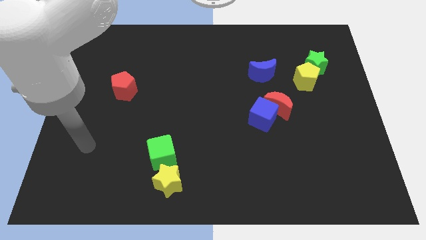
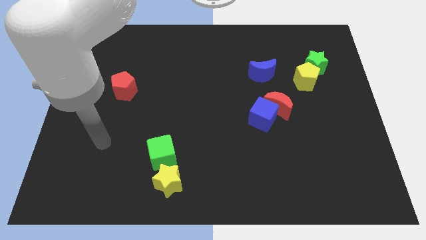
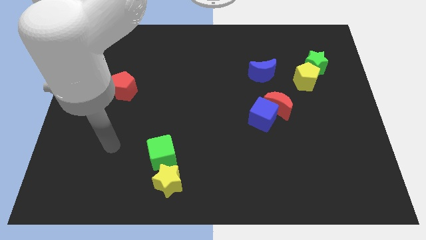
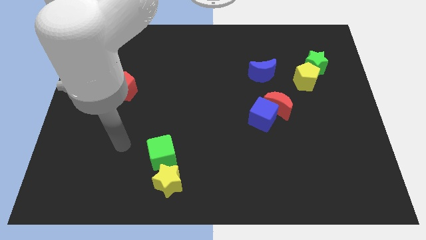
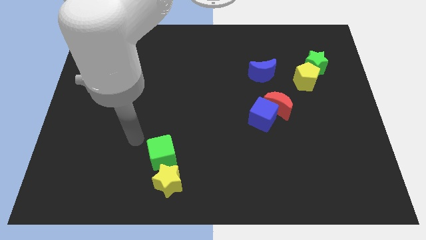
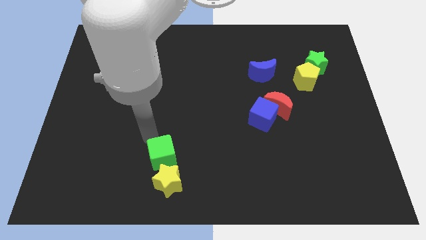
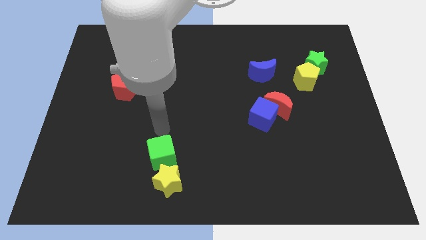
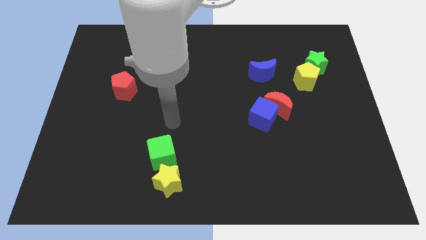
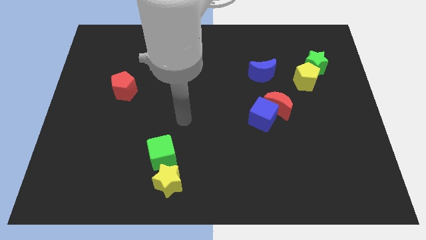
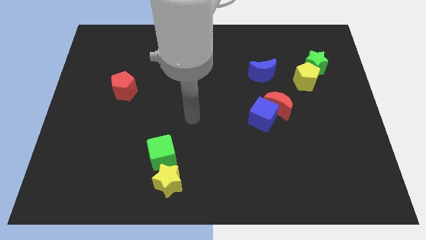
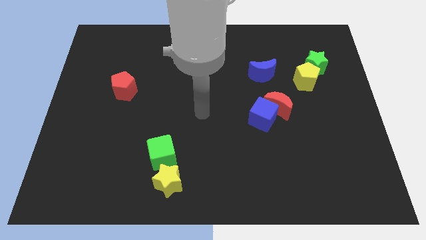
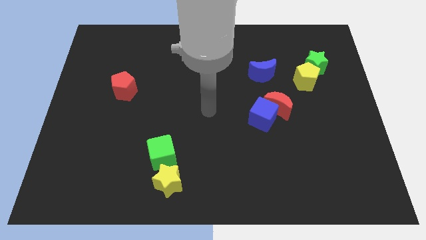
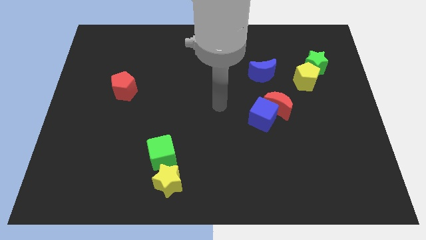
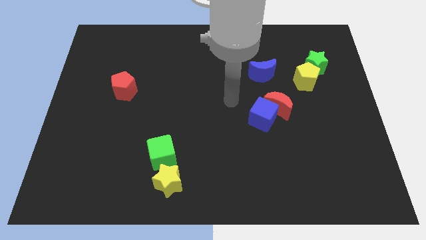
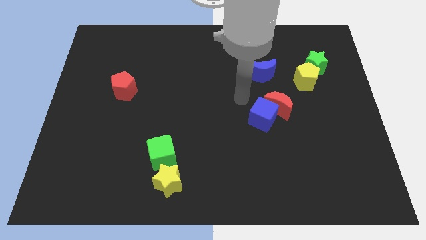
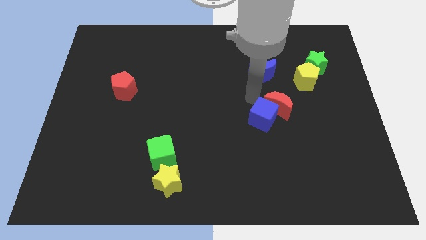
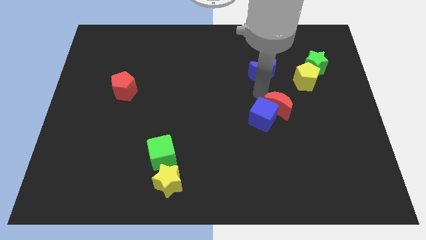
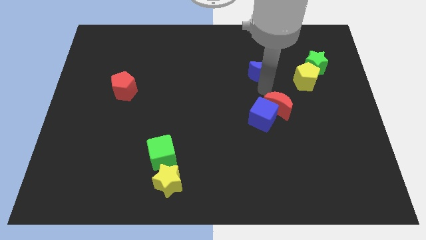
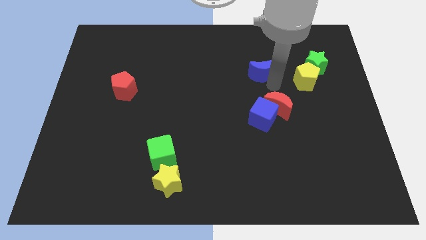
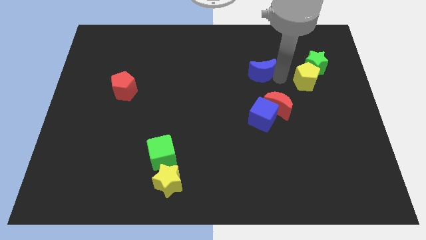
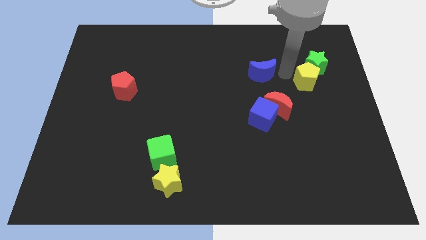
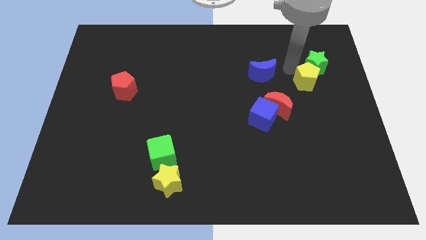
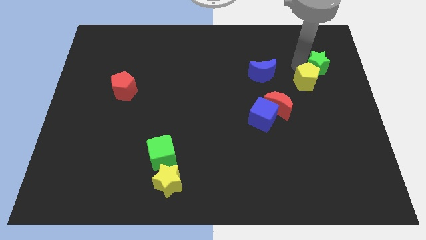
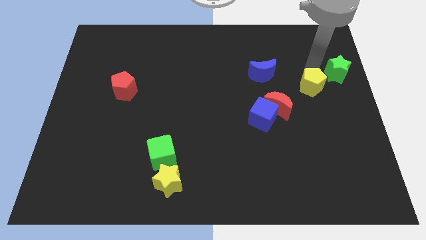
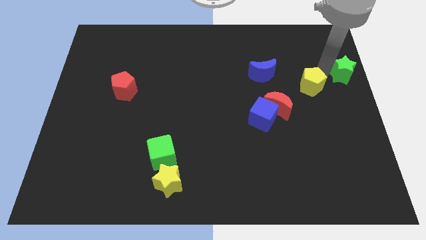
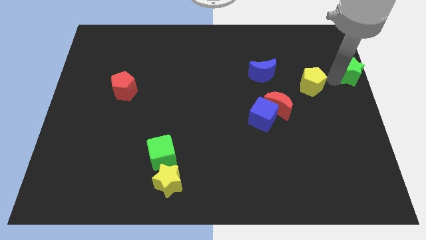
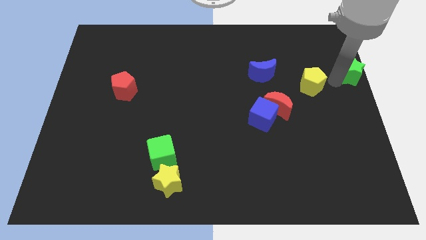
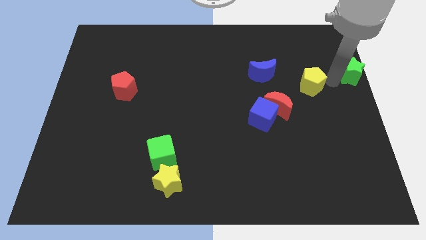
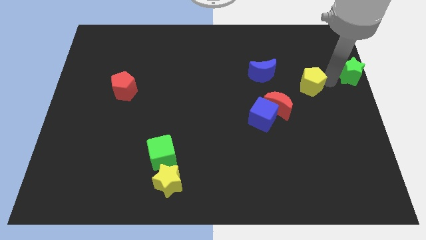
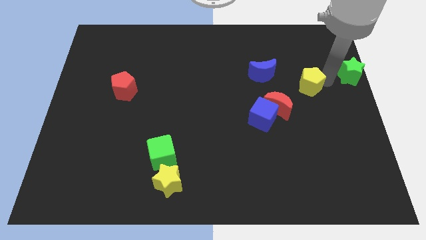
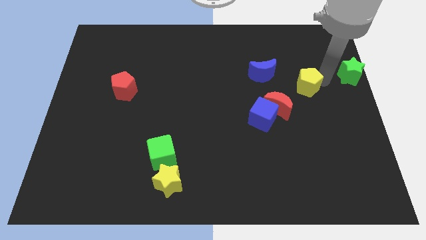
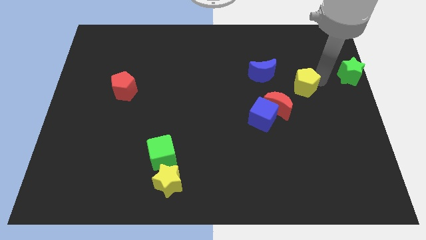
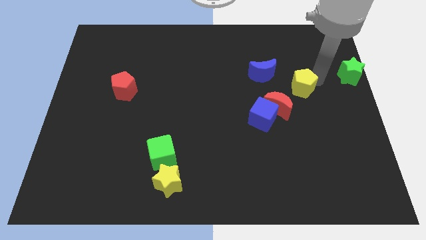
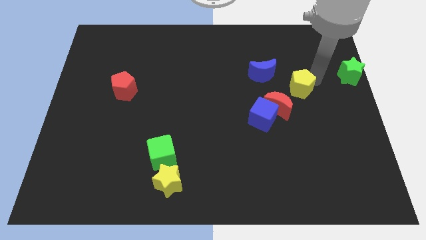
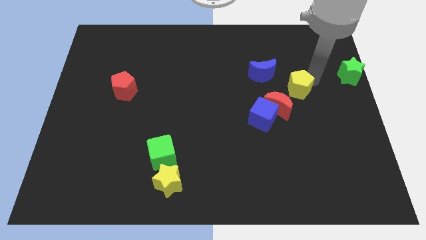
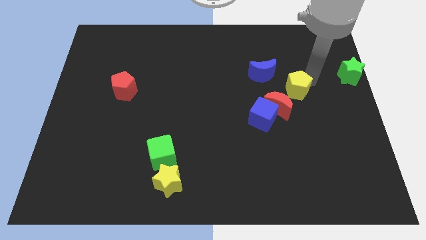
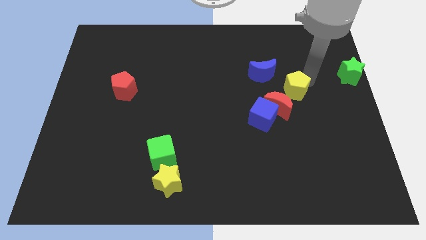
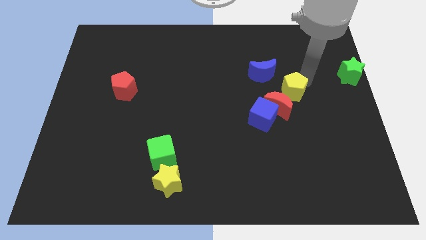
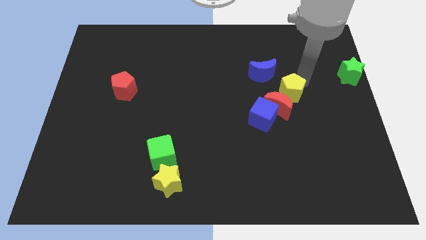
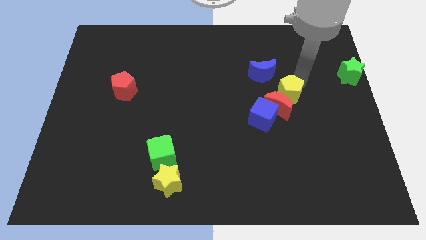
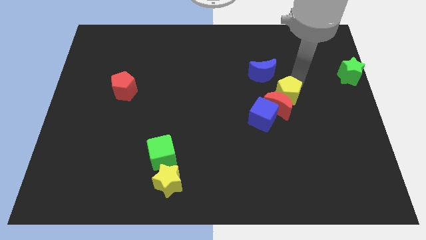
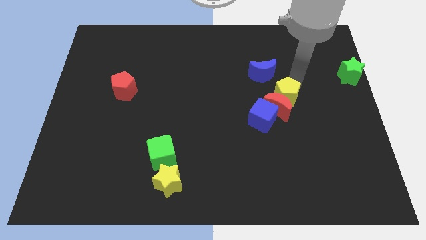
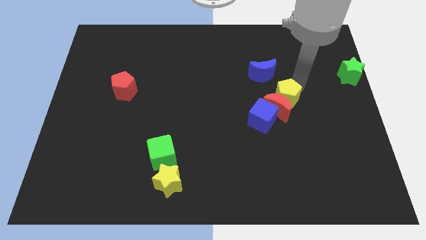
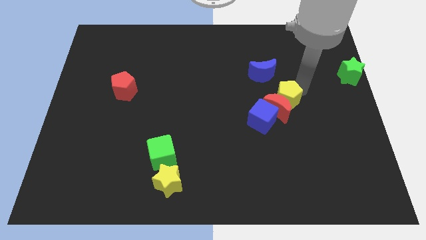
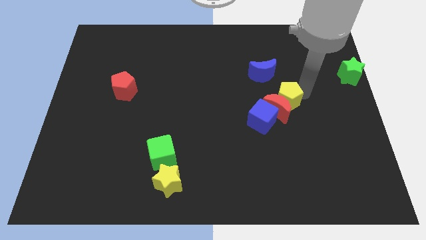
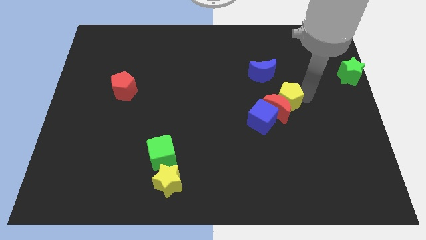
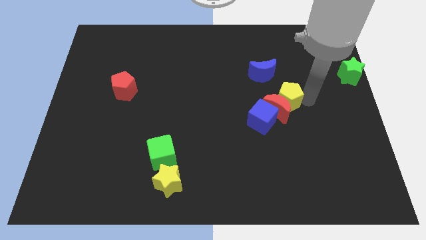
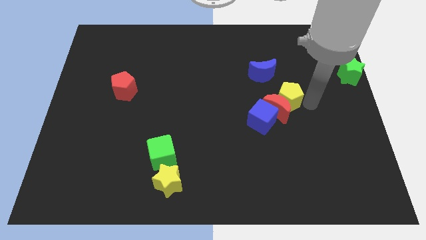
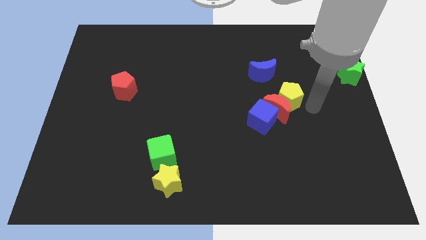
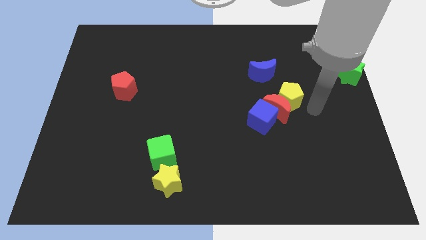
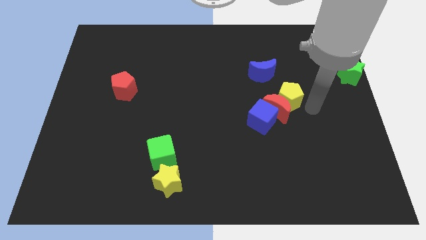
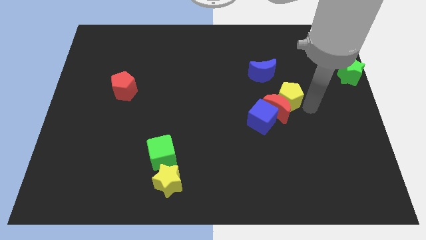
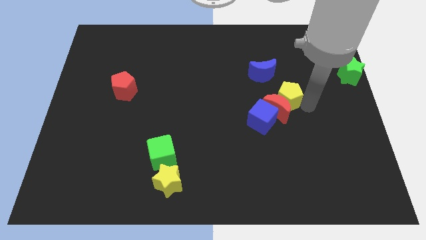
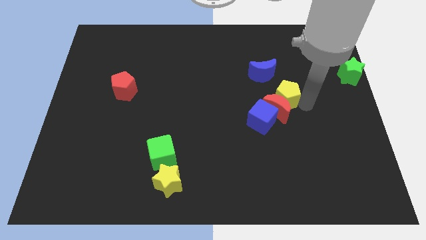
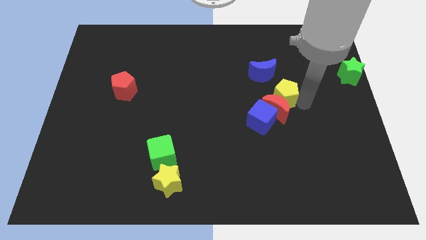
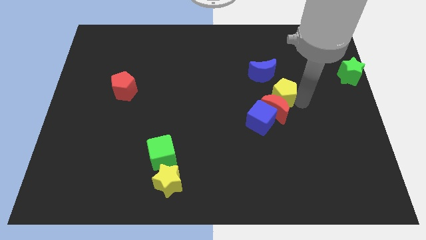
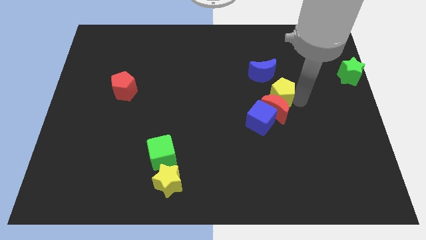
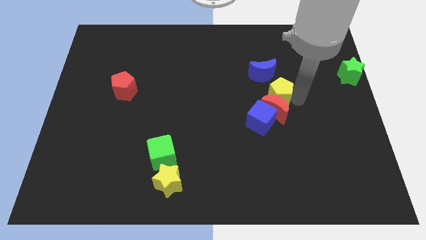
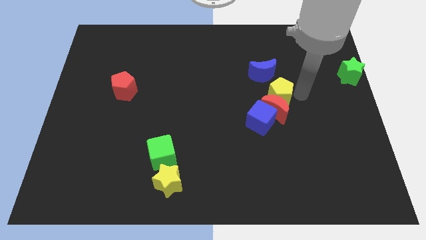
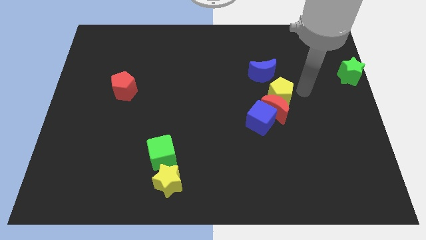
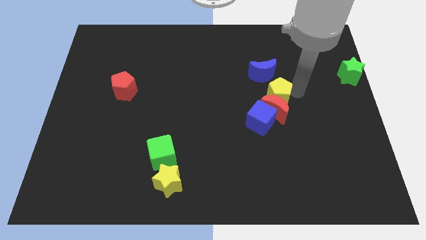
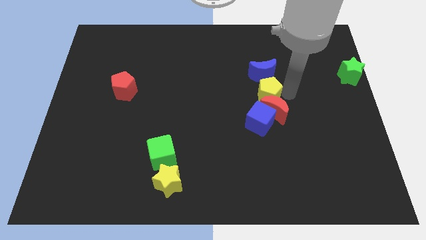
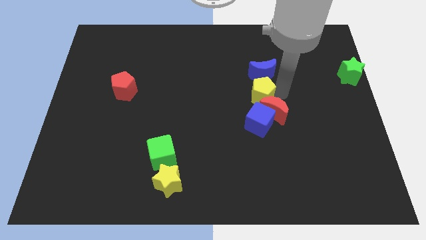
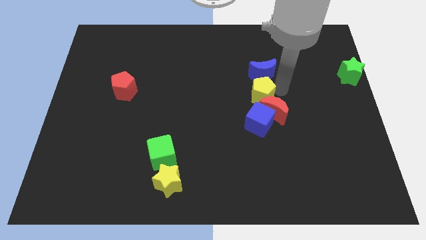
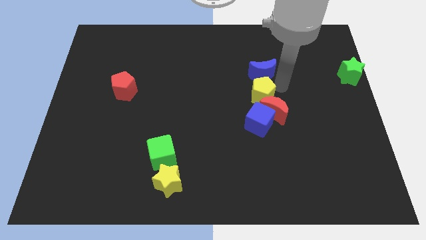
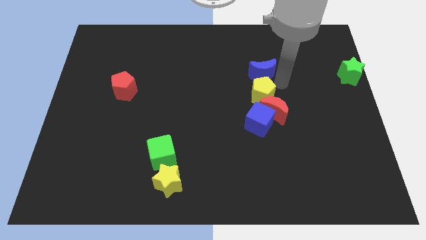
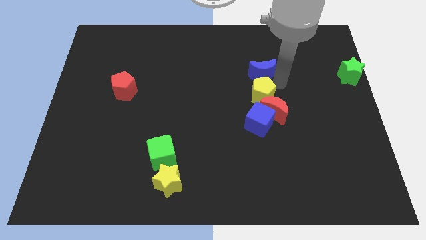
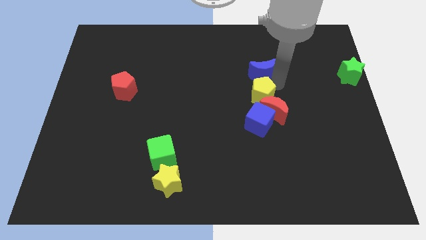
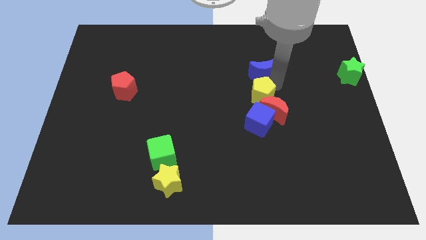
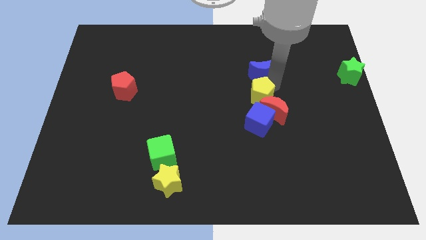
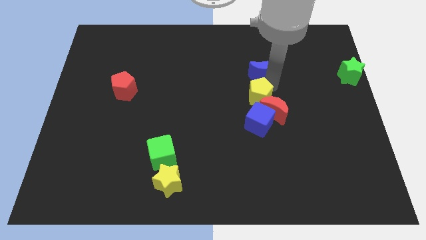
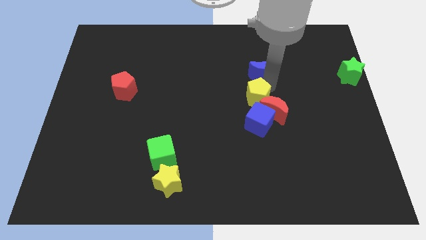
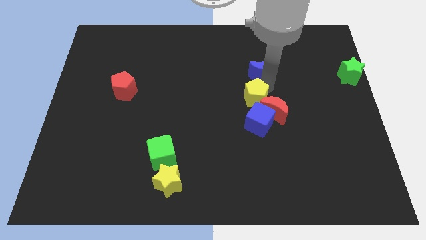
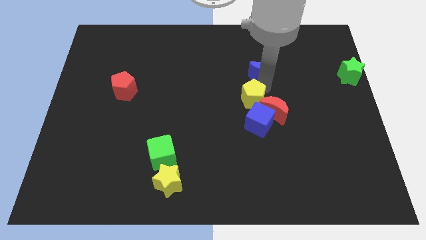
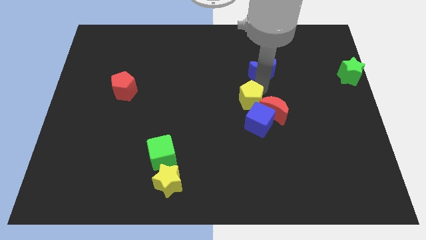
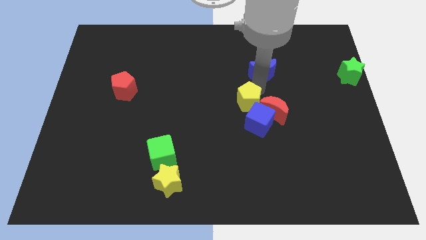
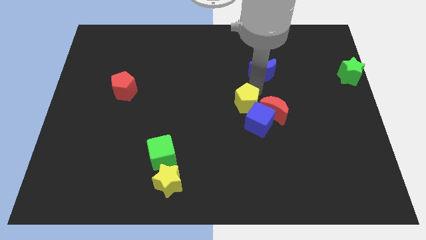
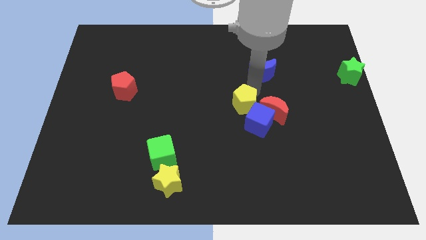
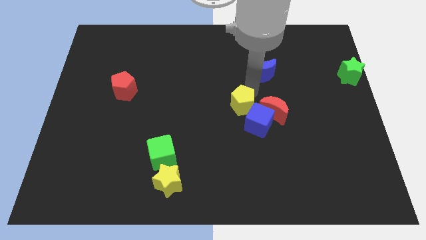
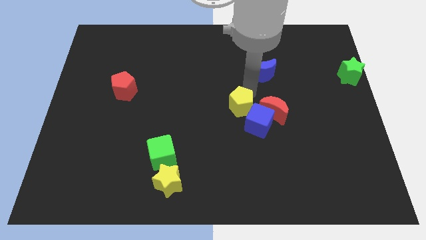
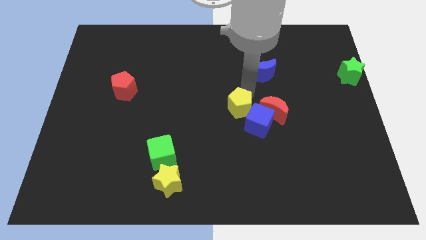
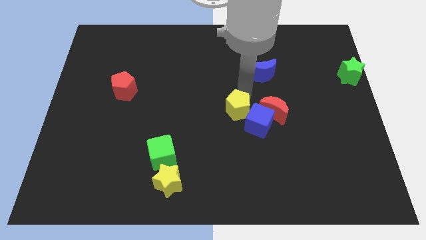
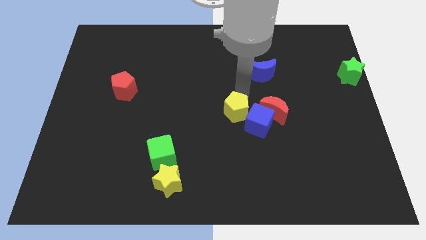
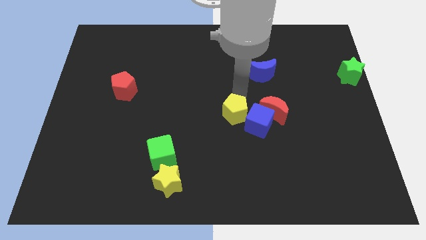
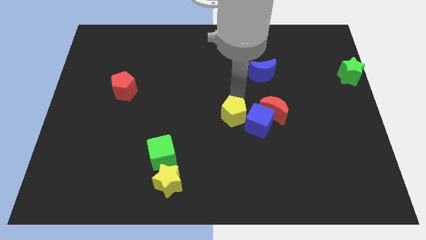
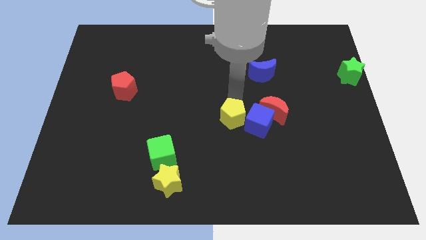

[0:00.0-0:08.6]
push the yellow pentagon diagonally downwards and to the left
